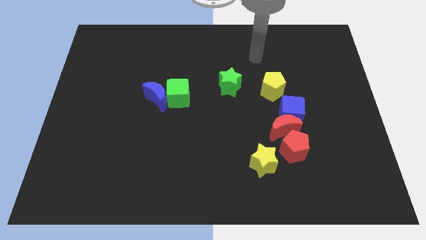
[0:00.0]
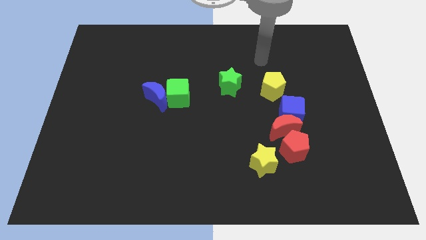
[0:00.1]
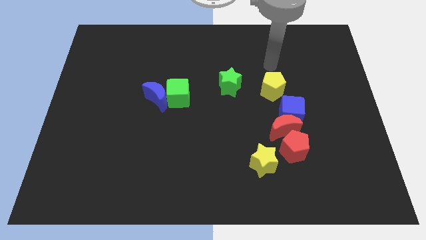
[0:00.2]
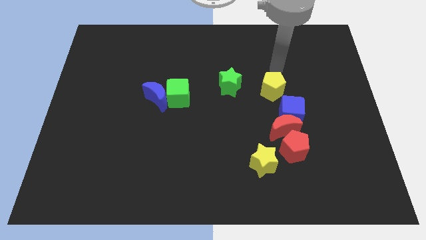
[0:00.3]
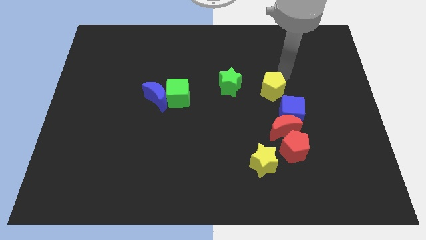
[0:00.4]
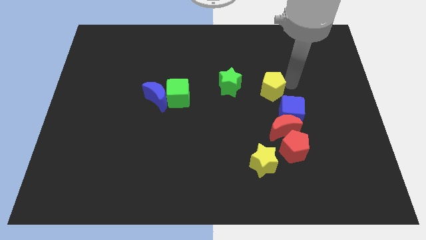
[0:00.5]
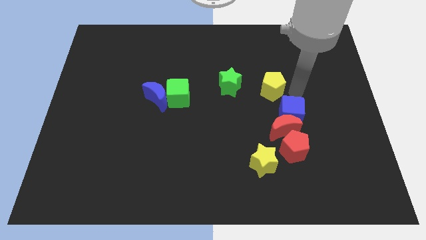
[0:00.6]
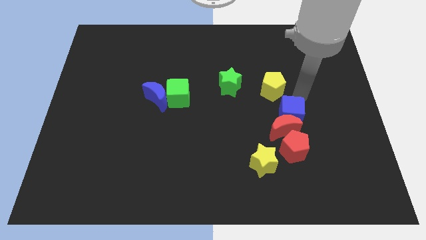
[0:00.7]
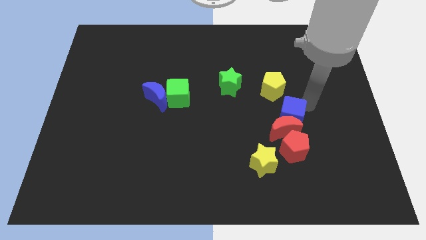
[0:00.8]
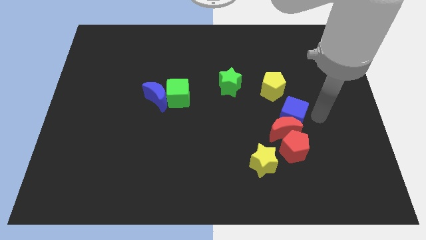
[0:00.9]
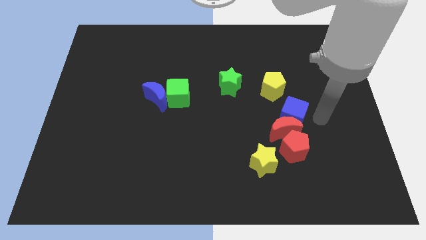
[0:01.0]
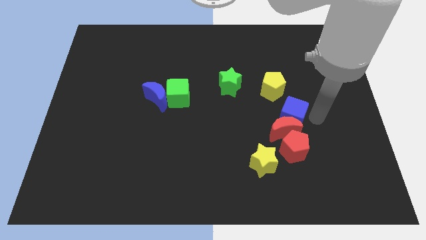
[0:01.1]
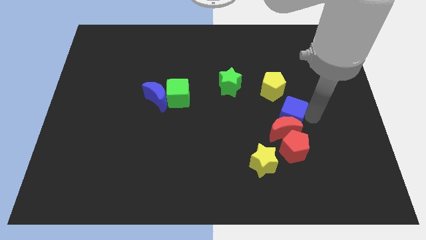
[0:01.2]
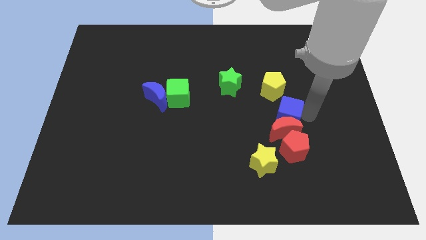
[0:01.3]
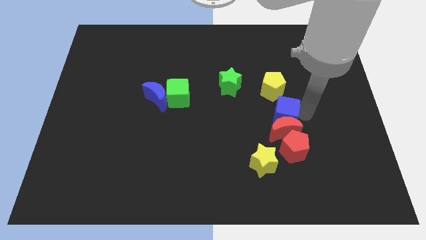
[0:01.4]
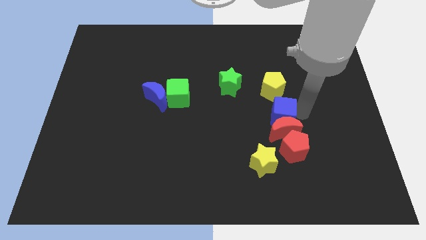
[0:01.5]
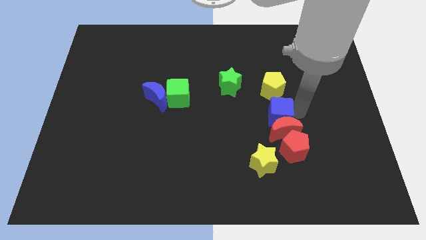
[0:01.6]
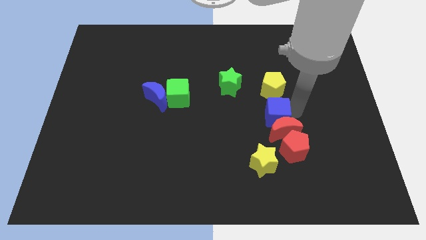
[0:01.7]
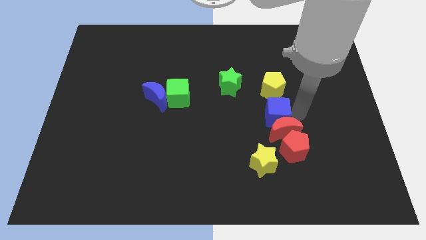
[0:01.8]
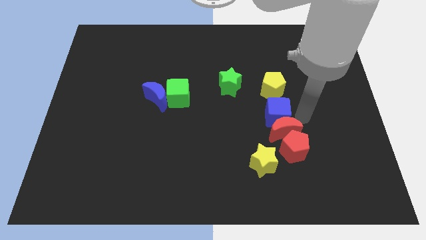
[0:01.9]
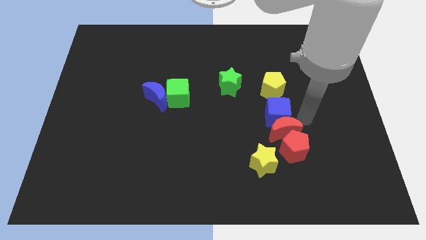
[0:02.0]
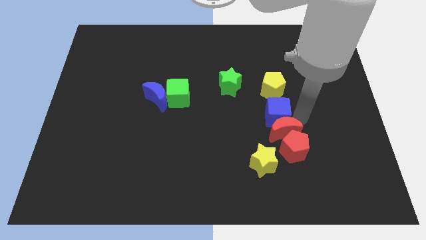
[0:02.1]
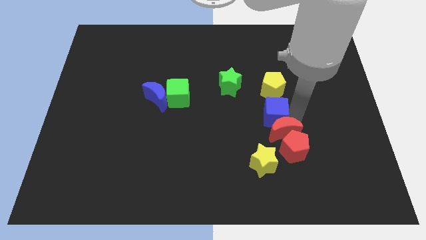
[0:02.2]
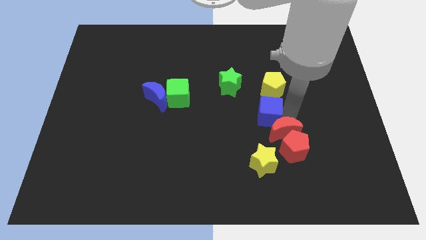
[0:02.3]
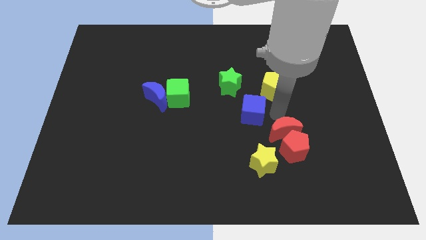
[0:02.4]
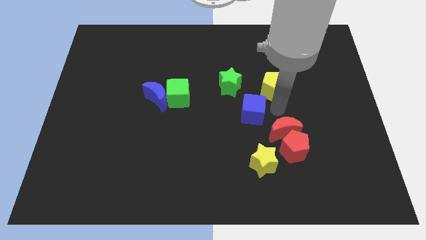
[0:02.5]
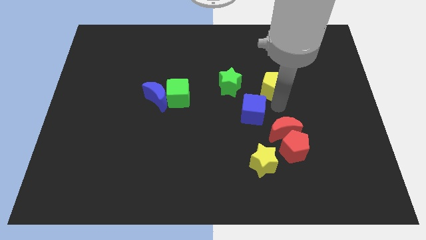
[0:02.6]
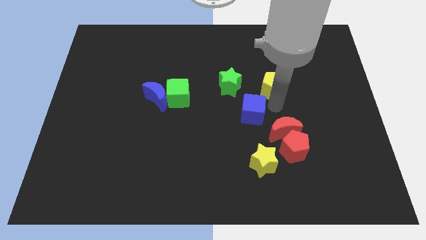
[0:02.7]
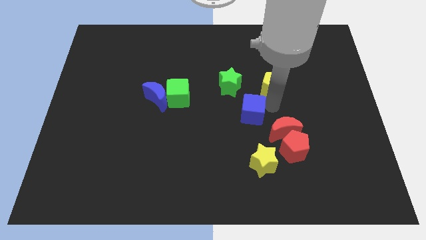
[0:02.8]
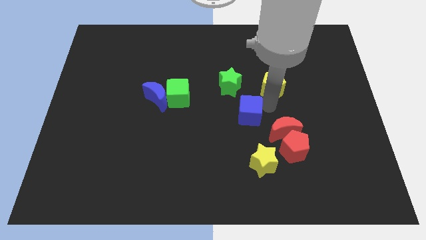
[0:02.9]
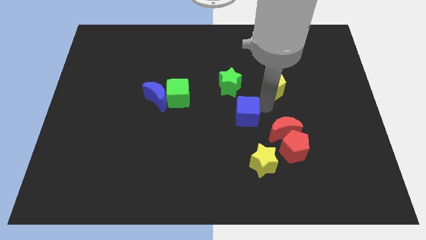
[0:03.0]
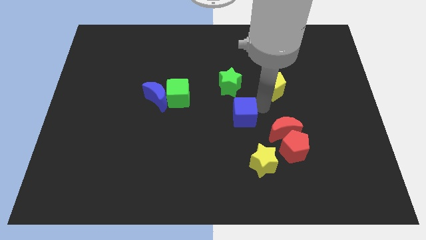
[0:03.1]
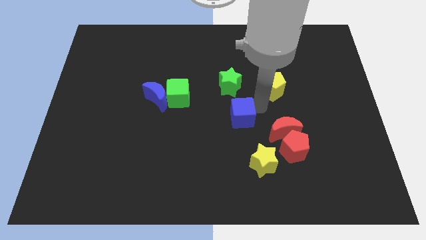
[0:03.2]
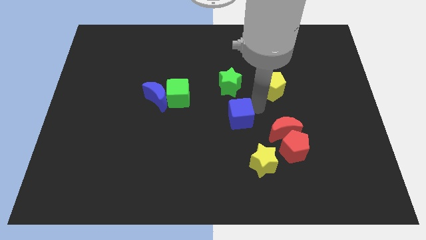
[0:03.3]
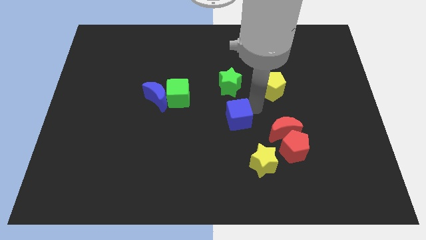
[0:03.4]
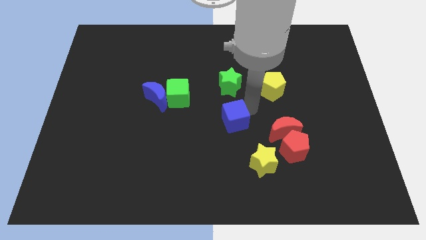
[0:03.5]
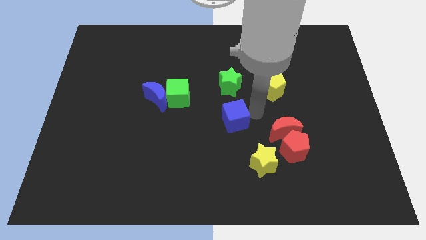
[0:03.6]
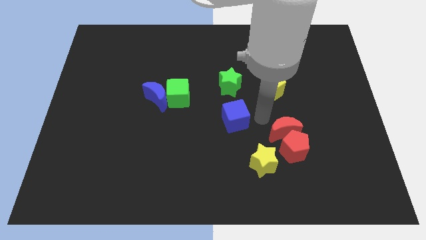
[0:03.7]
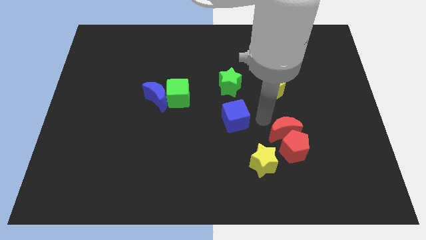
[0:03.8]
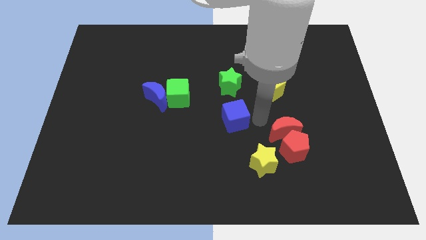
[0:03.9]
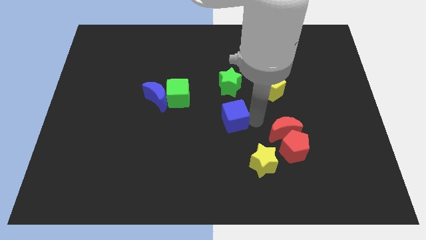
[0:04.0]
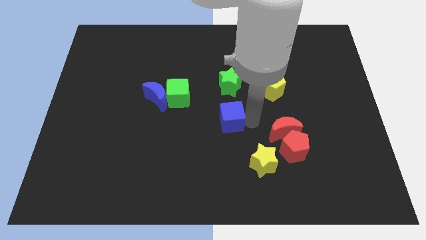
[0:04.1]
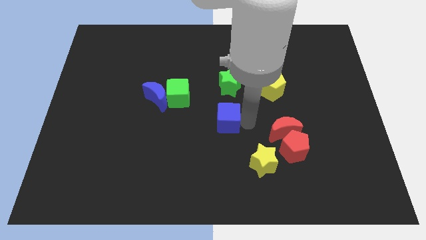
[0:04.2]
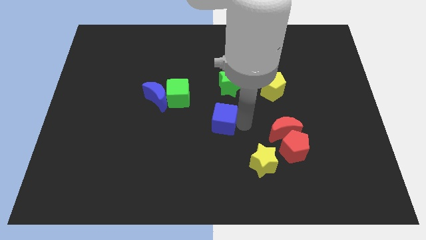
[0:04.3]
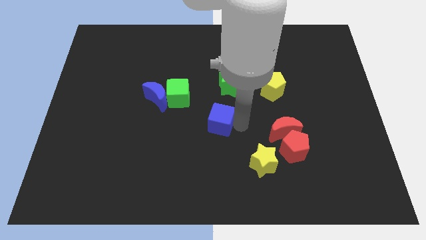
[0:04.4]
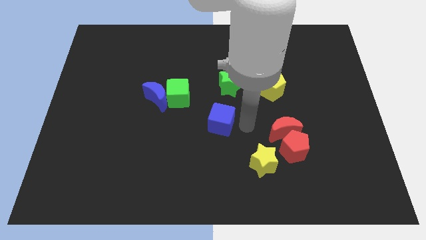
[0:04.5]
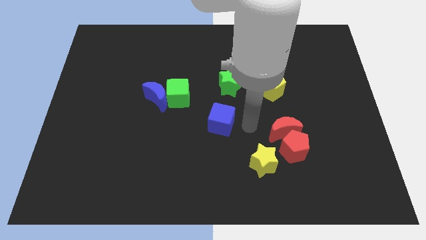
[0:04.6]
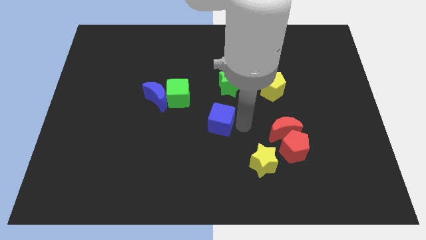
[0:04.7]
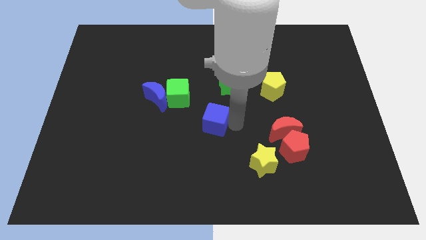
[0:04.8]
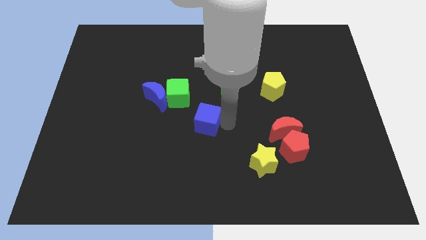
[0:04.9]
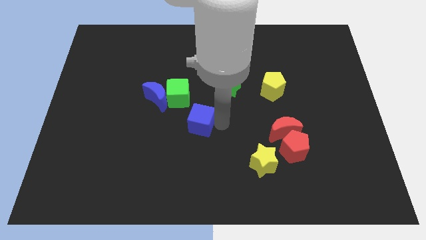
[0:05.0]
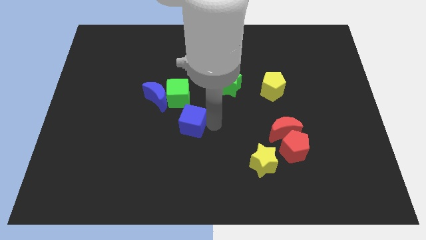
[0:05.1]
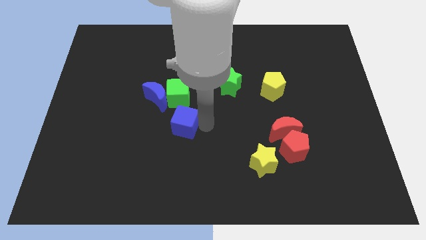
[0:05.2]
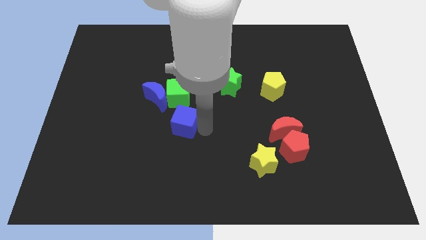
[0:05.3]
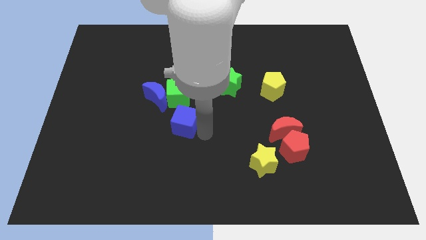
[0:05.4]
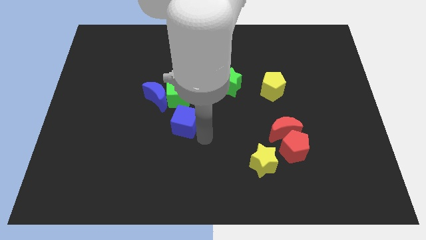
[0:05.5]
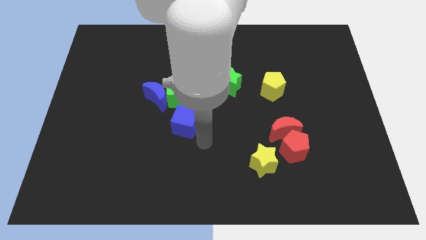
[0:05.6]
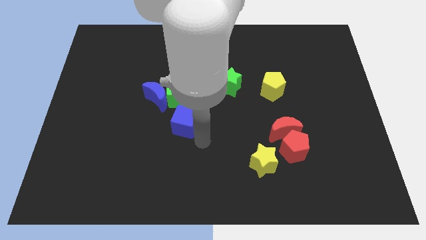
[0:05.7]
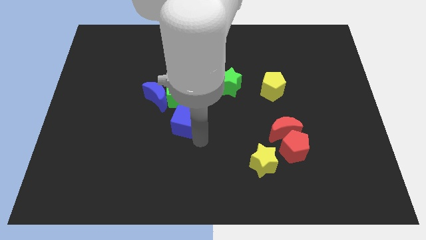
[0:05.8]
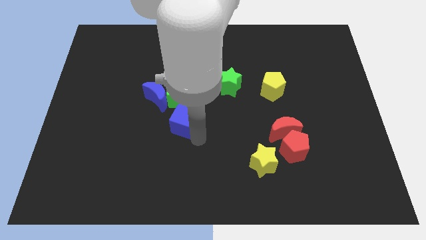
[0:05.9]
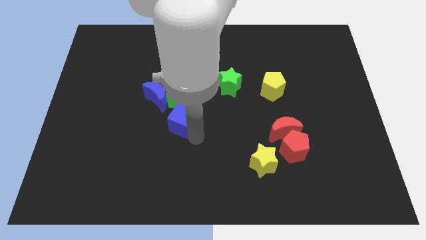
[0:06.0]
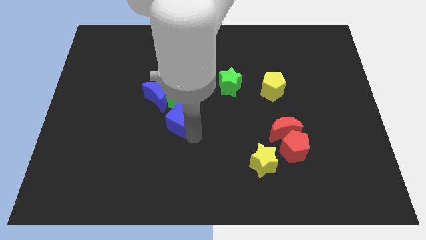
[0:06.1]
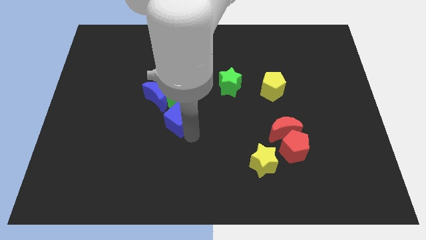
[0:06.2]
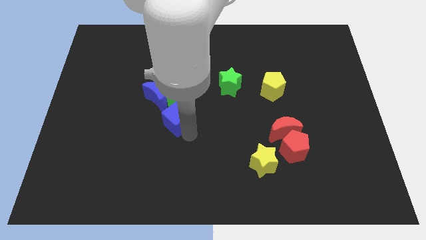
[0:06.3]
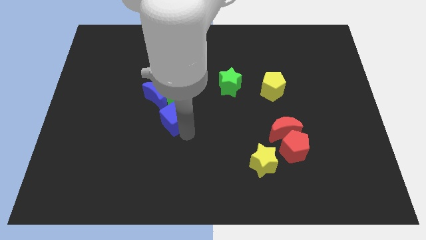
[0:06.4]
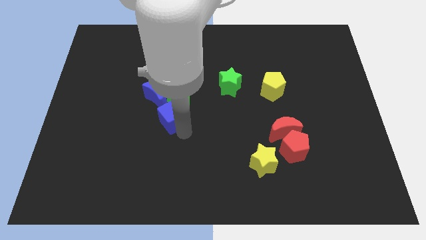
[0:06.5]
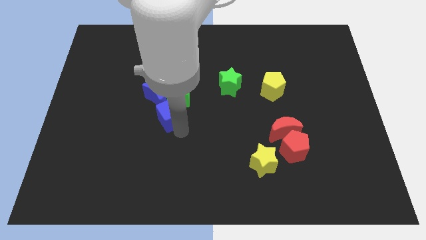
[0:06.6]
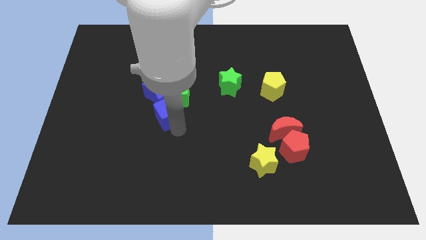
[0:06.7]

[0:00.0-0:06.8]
move the blue cube towards the green cube
